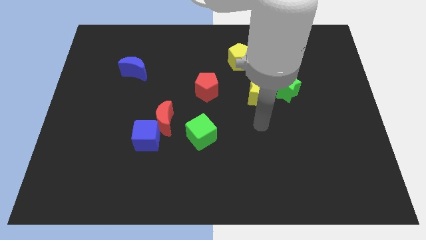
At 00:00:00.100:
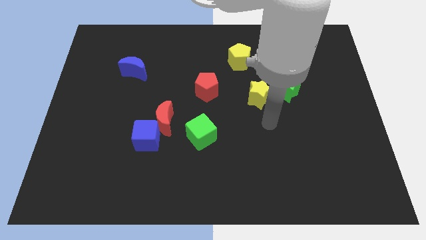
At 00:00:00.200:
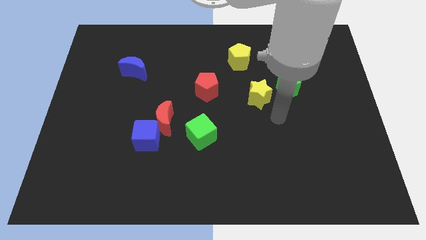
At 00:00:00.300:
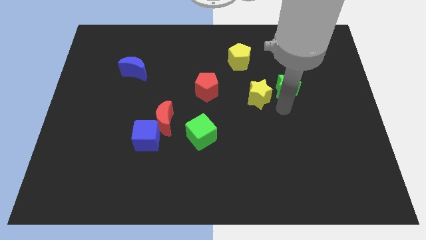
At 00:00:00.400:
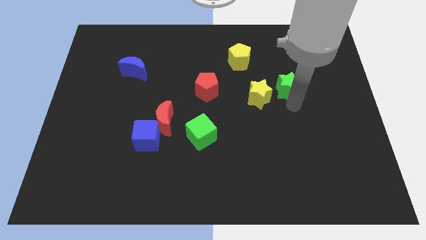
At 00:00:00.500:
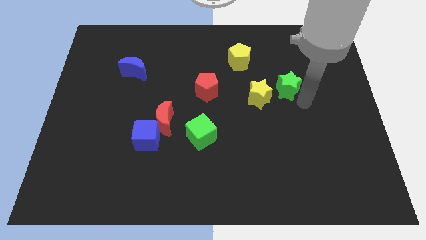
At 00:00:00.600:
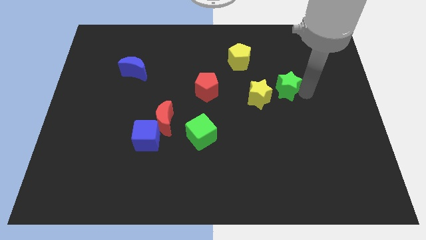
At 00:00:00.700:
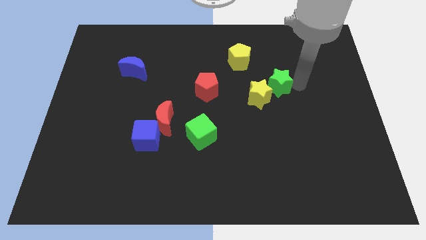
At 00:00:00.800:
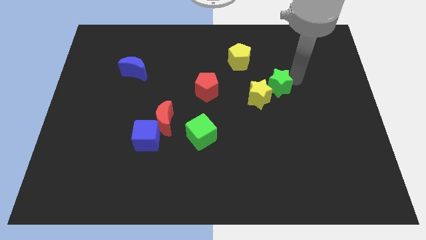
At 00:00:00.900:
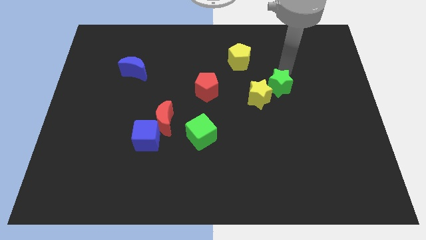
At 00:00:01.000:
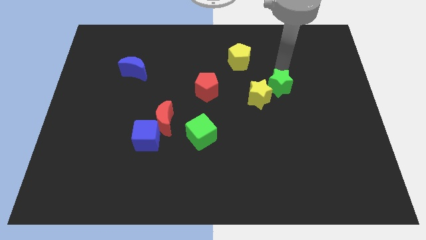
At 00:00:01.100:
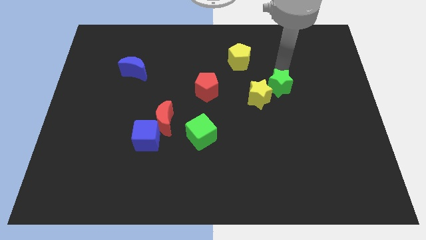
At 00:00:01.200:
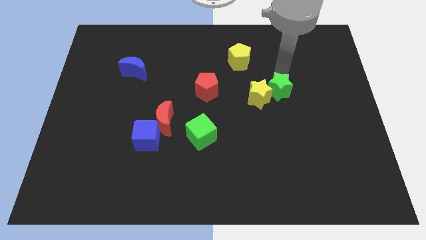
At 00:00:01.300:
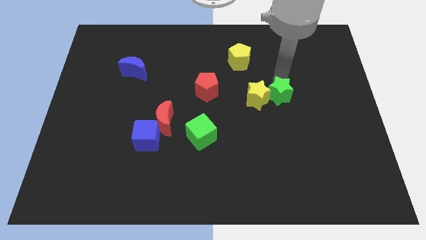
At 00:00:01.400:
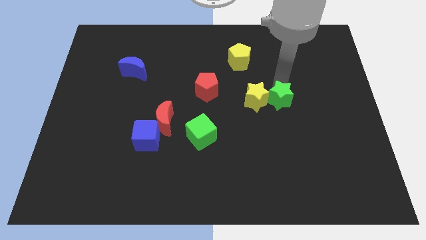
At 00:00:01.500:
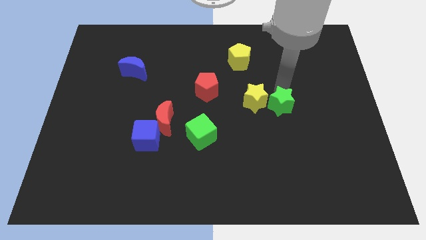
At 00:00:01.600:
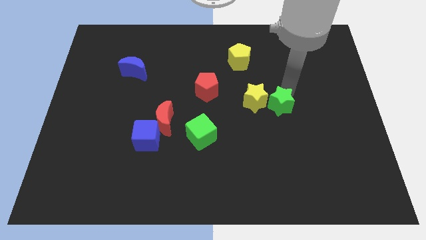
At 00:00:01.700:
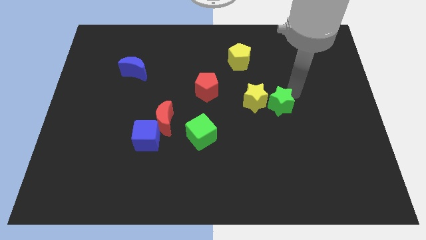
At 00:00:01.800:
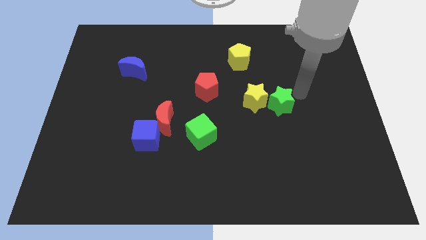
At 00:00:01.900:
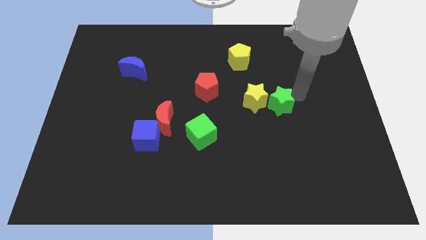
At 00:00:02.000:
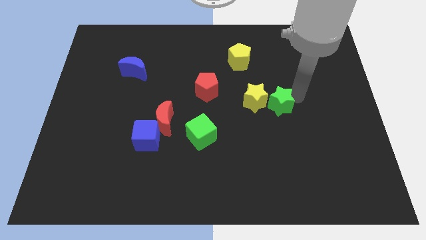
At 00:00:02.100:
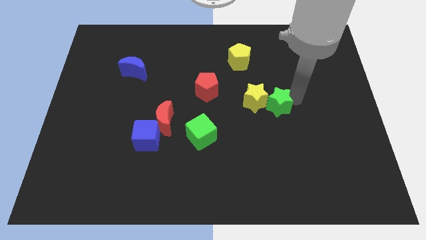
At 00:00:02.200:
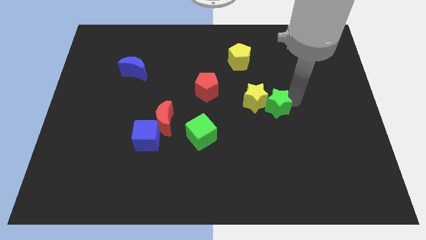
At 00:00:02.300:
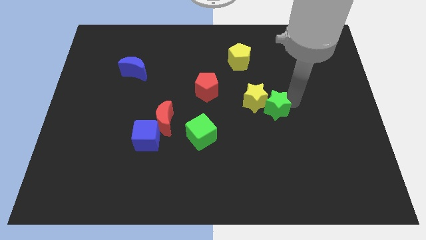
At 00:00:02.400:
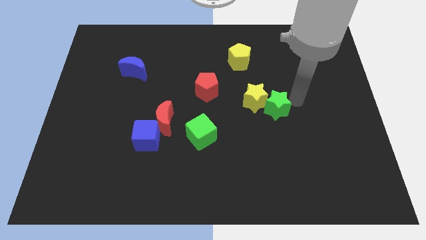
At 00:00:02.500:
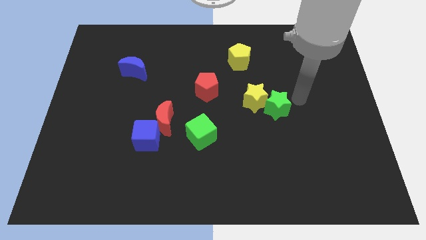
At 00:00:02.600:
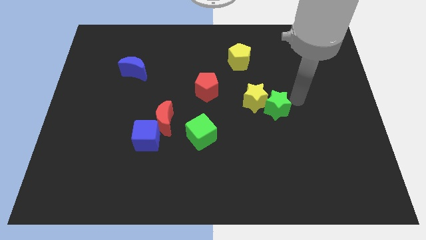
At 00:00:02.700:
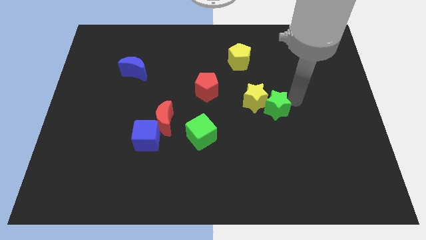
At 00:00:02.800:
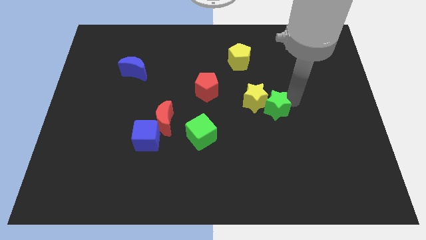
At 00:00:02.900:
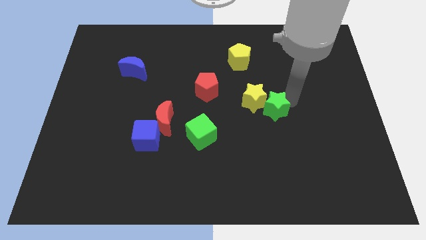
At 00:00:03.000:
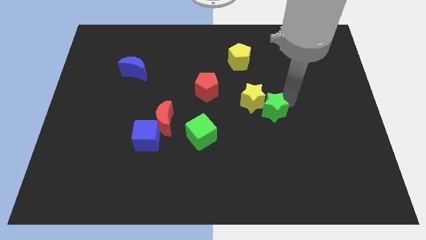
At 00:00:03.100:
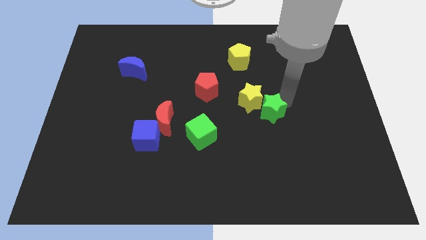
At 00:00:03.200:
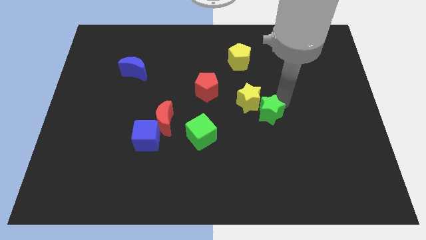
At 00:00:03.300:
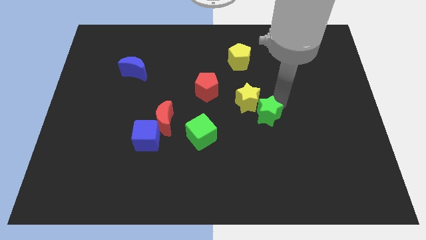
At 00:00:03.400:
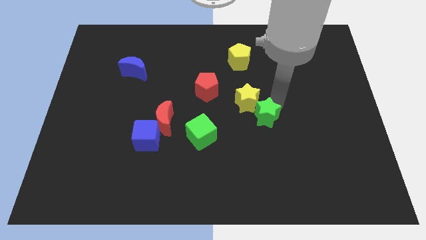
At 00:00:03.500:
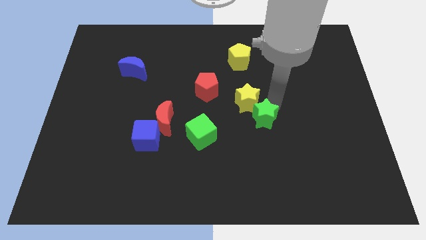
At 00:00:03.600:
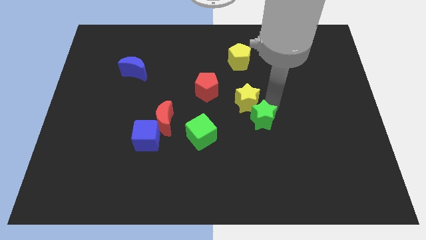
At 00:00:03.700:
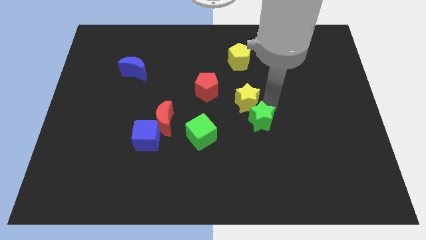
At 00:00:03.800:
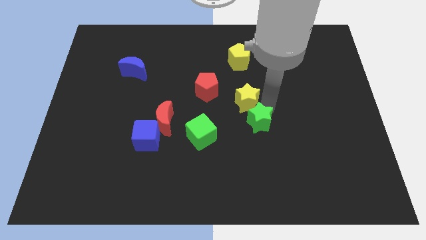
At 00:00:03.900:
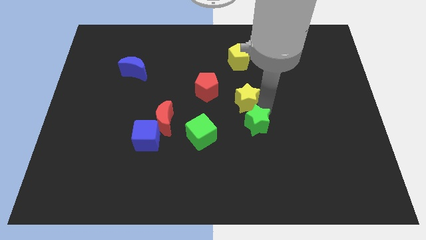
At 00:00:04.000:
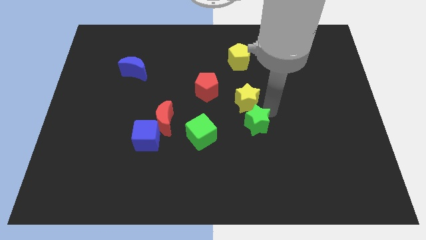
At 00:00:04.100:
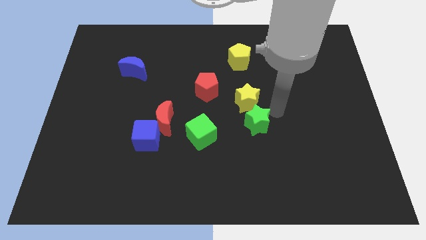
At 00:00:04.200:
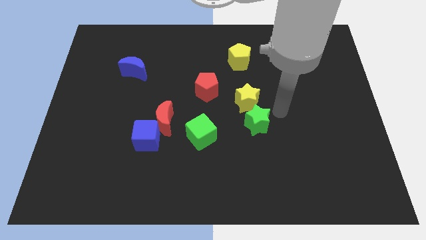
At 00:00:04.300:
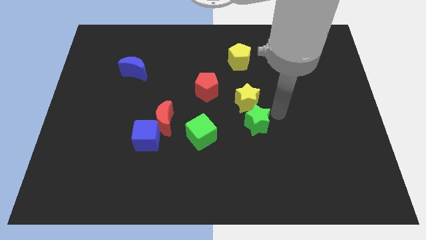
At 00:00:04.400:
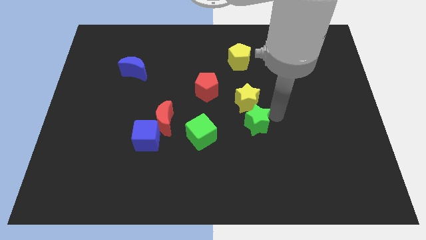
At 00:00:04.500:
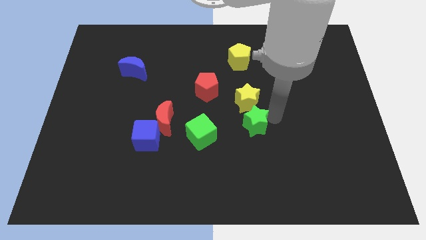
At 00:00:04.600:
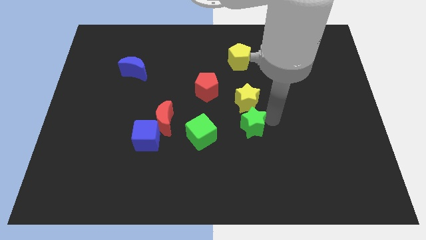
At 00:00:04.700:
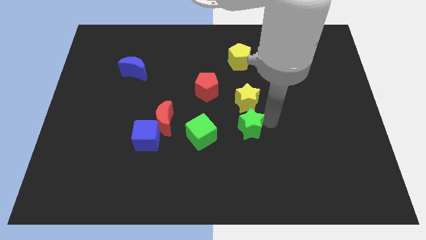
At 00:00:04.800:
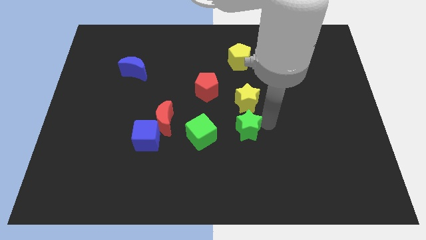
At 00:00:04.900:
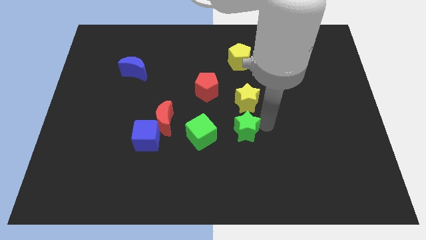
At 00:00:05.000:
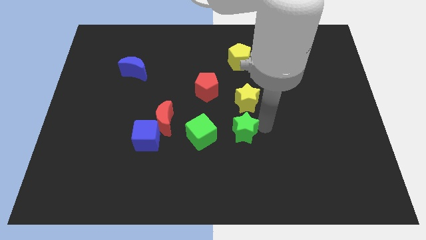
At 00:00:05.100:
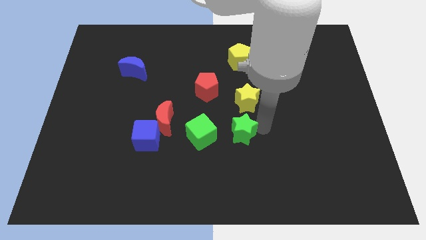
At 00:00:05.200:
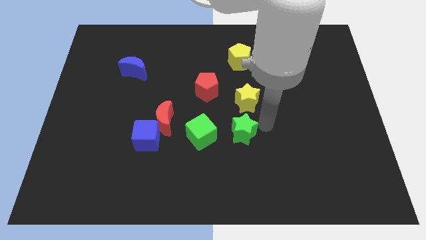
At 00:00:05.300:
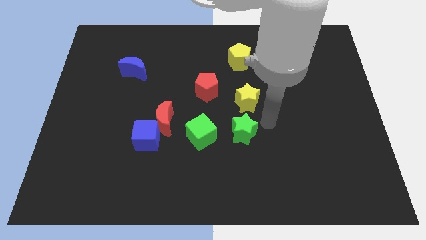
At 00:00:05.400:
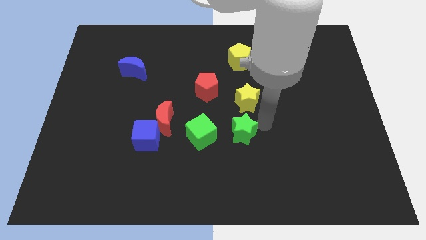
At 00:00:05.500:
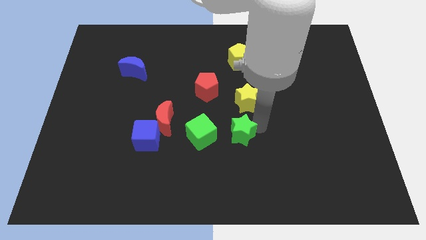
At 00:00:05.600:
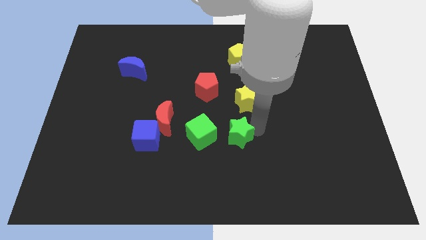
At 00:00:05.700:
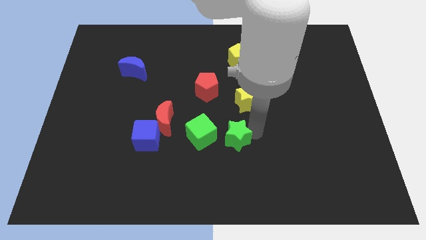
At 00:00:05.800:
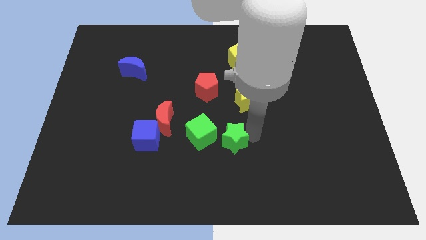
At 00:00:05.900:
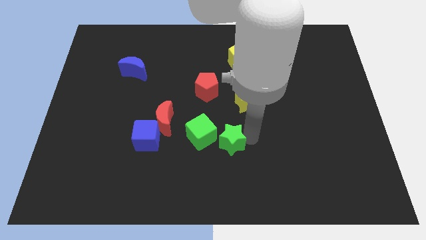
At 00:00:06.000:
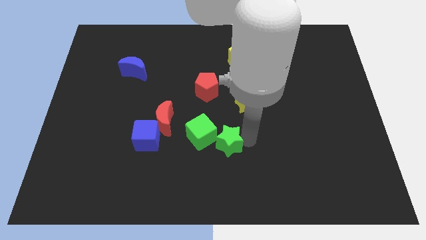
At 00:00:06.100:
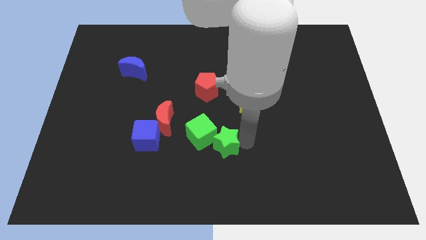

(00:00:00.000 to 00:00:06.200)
push the green star next to the green cube

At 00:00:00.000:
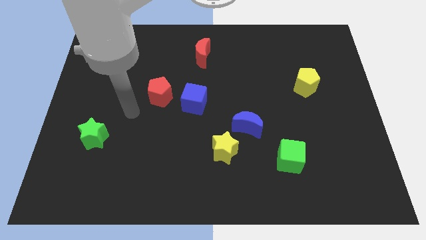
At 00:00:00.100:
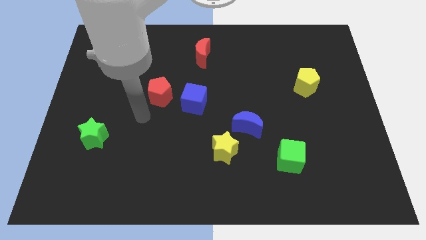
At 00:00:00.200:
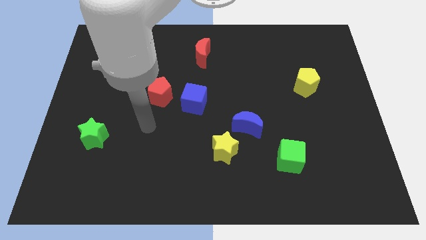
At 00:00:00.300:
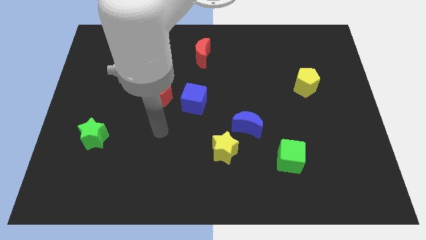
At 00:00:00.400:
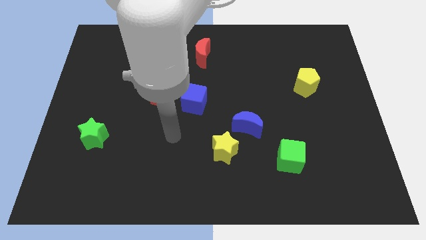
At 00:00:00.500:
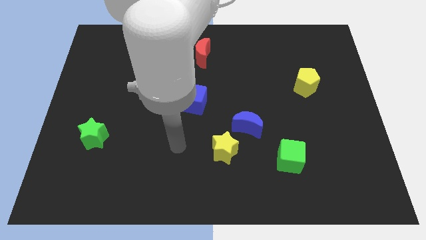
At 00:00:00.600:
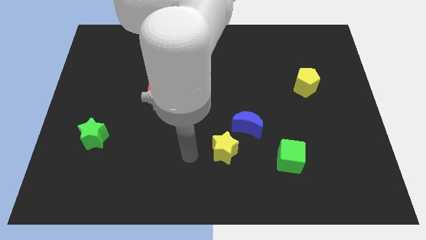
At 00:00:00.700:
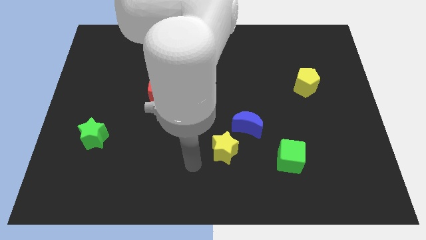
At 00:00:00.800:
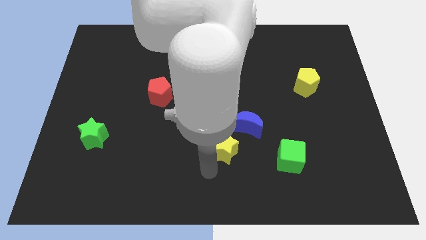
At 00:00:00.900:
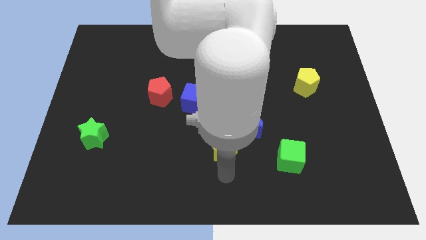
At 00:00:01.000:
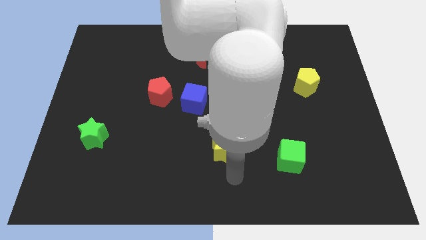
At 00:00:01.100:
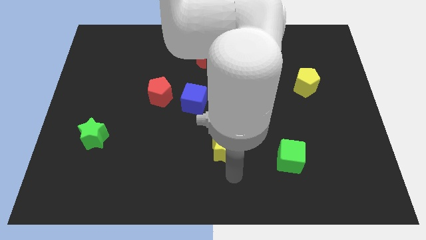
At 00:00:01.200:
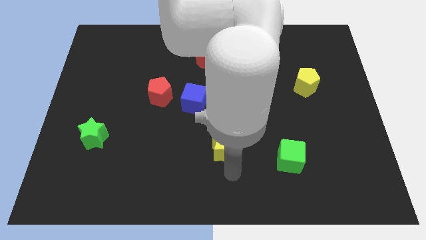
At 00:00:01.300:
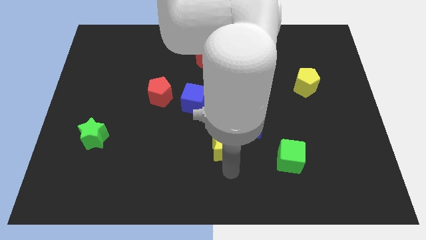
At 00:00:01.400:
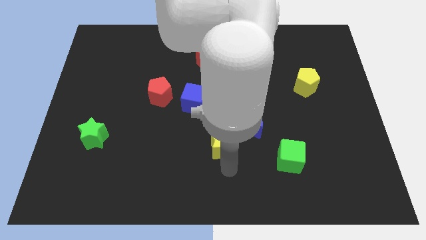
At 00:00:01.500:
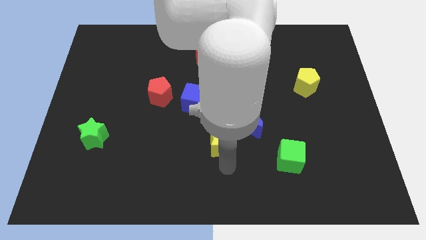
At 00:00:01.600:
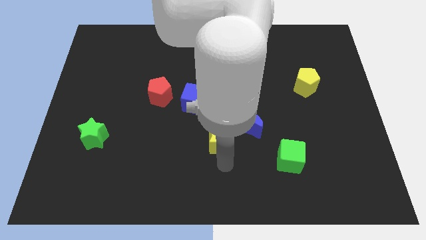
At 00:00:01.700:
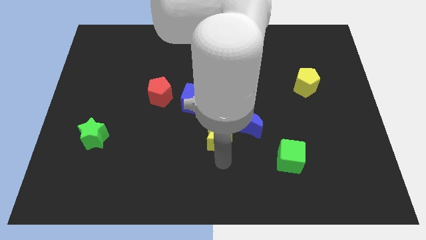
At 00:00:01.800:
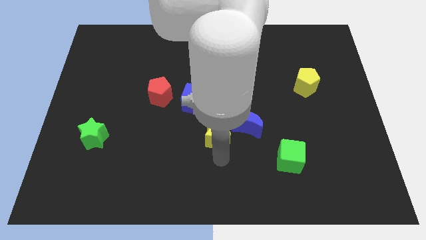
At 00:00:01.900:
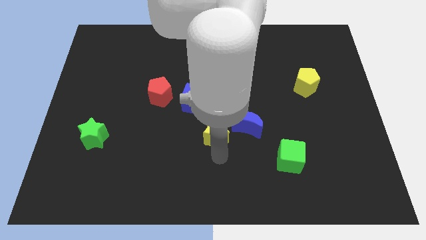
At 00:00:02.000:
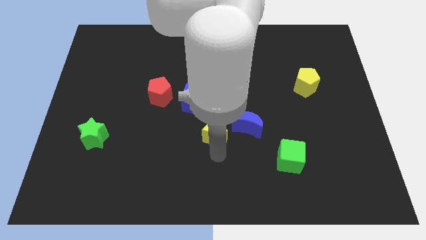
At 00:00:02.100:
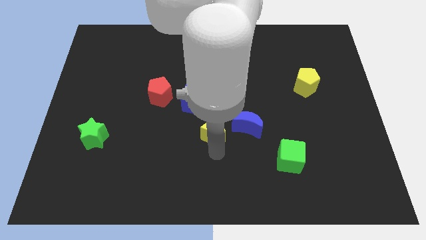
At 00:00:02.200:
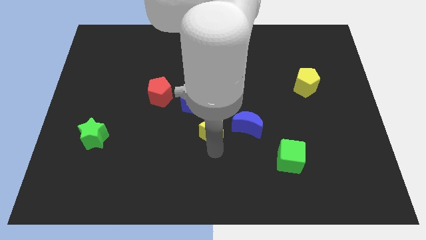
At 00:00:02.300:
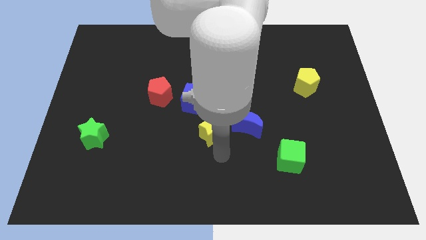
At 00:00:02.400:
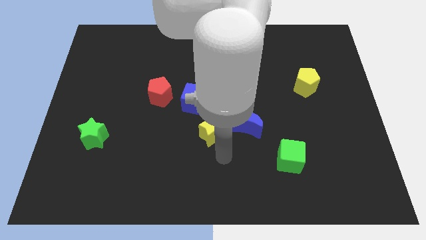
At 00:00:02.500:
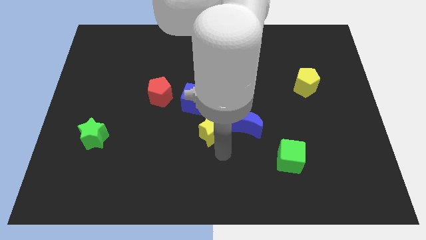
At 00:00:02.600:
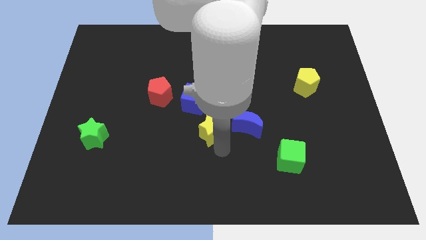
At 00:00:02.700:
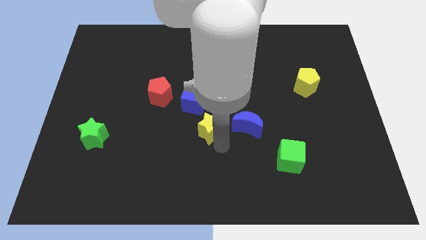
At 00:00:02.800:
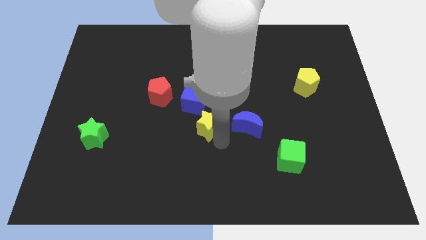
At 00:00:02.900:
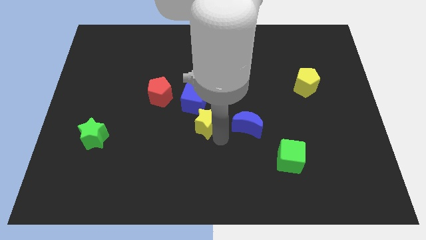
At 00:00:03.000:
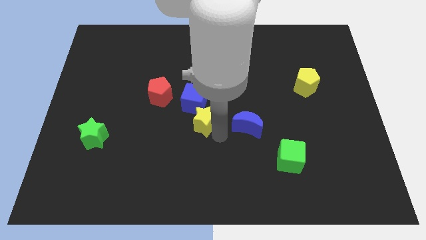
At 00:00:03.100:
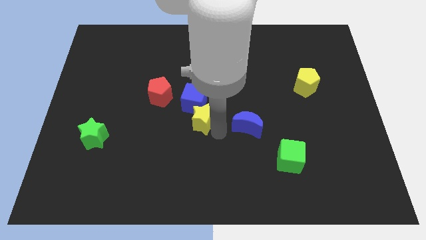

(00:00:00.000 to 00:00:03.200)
put the yellow star close to the blue cube
